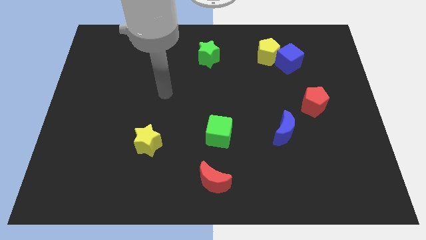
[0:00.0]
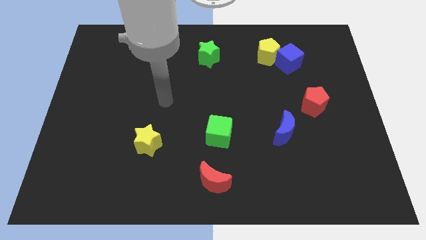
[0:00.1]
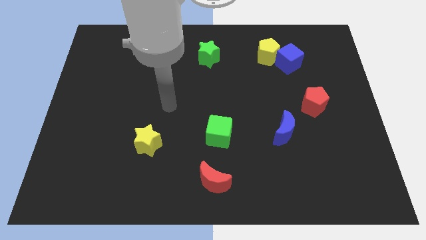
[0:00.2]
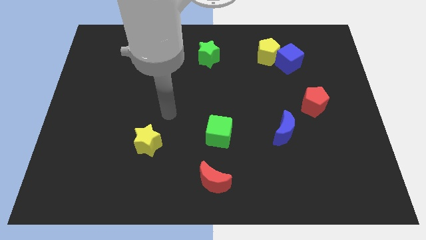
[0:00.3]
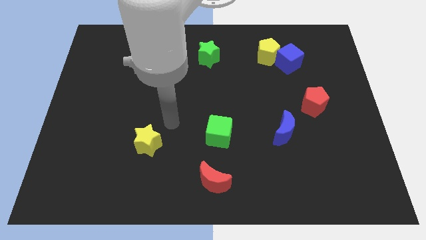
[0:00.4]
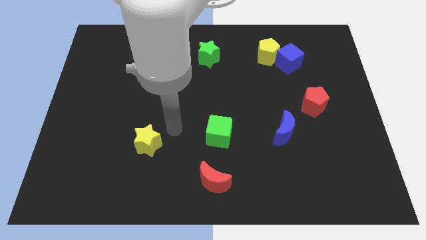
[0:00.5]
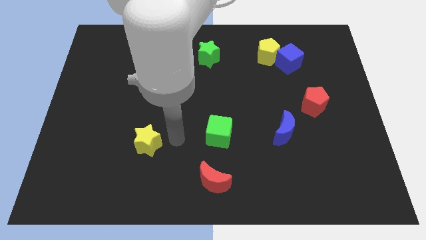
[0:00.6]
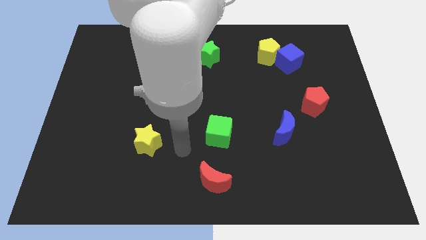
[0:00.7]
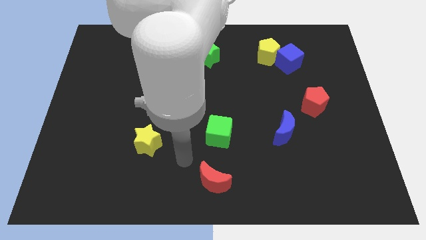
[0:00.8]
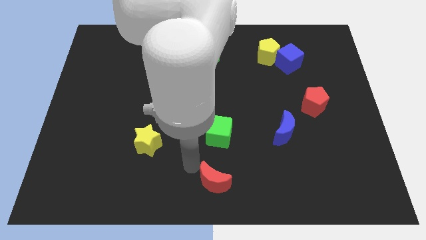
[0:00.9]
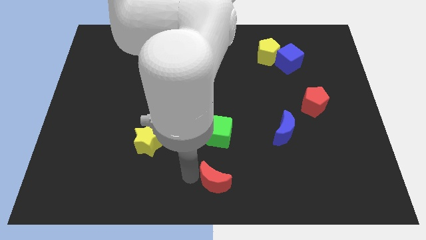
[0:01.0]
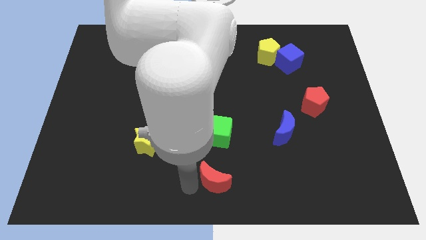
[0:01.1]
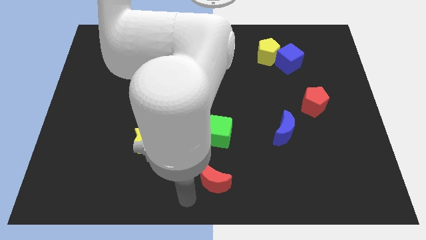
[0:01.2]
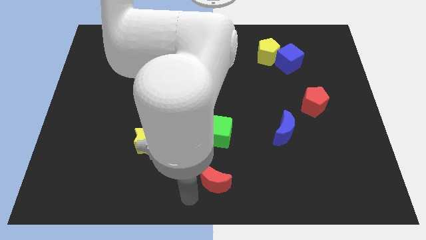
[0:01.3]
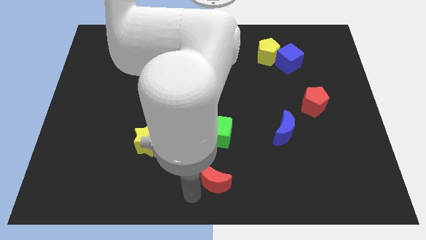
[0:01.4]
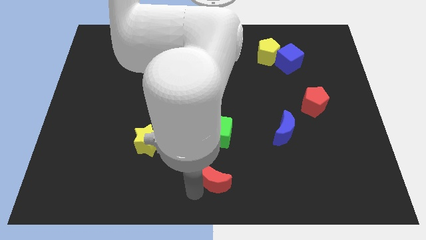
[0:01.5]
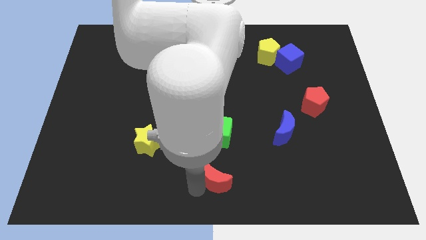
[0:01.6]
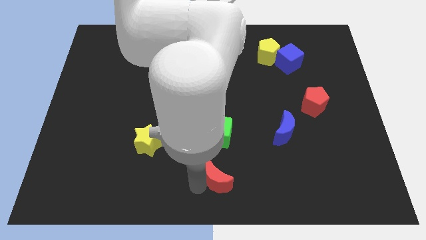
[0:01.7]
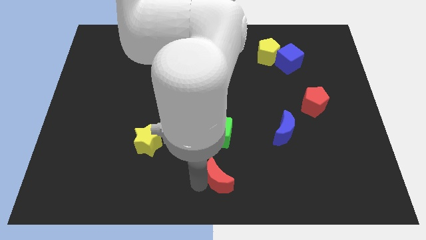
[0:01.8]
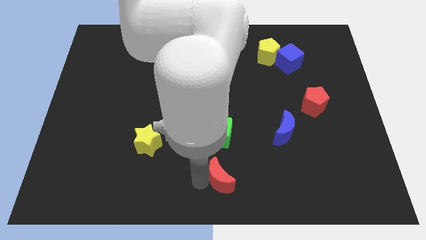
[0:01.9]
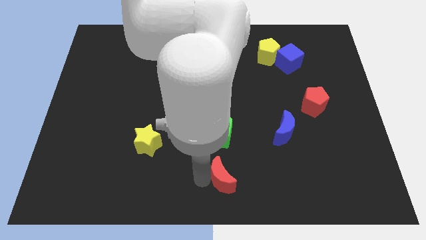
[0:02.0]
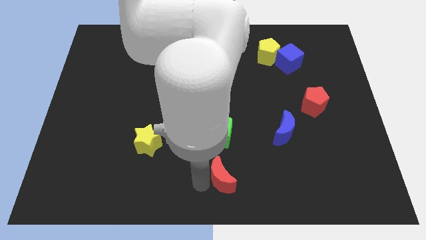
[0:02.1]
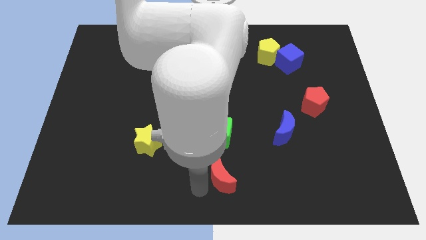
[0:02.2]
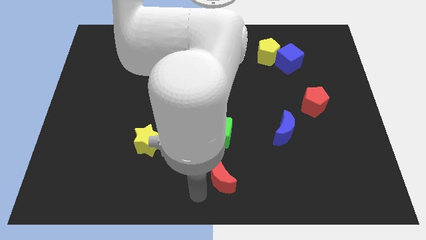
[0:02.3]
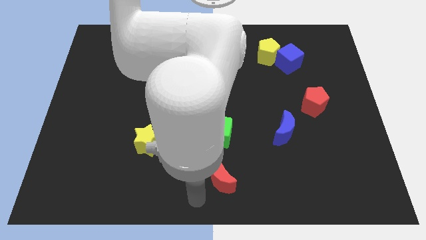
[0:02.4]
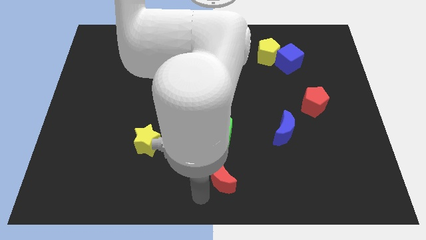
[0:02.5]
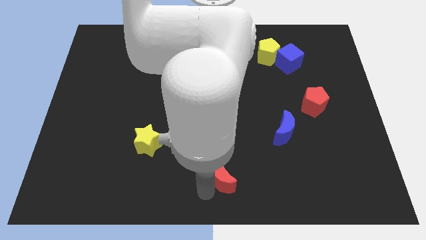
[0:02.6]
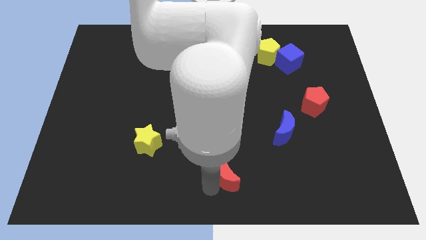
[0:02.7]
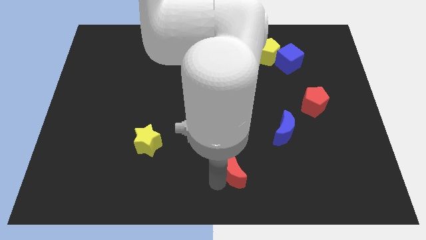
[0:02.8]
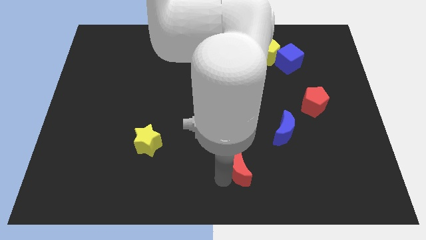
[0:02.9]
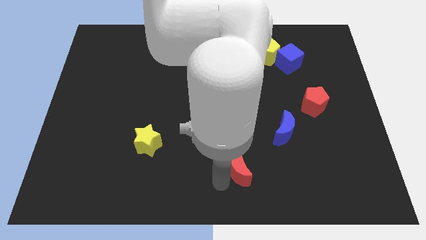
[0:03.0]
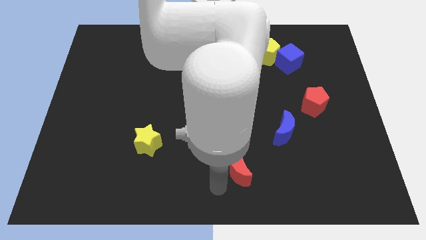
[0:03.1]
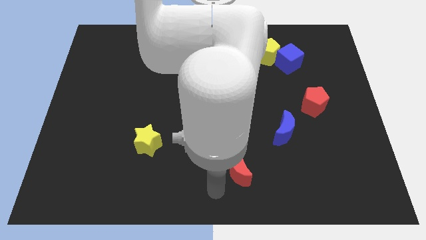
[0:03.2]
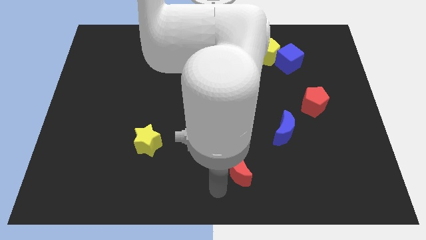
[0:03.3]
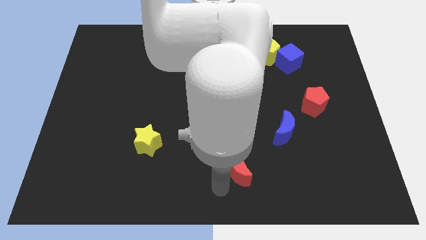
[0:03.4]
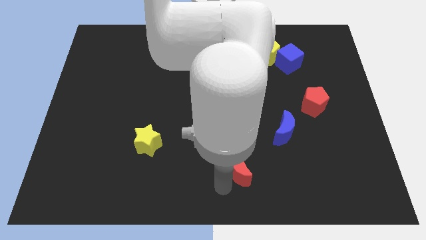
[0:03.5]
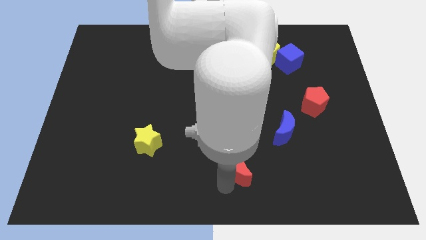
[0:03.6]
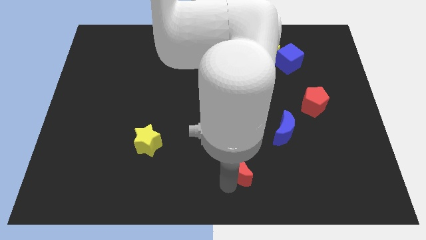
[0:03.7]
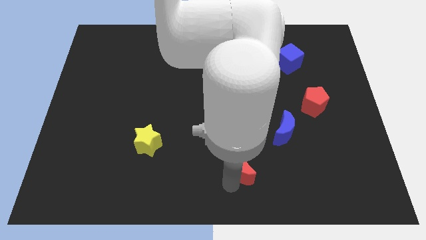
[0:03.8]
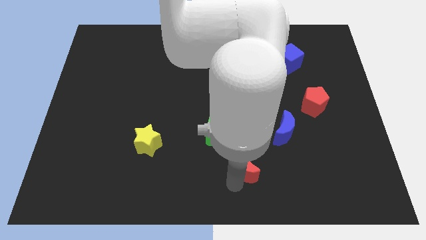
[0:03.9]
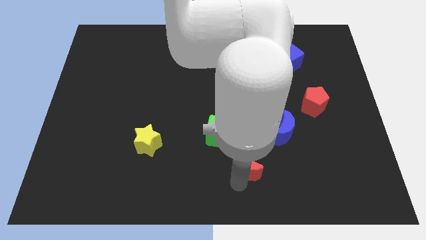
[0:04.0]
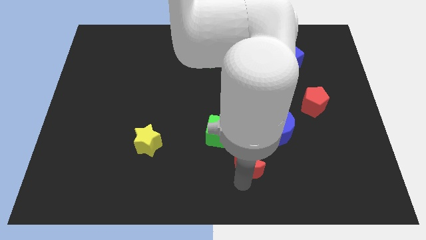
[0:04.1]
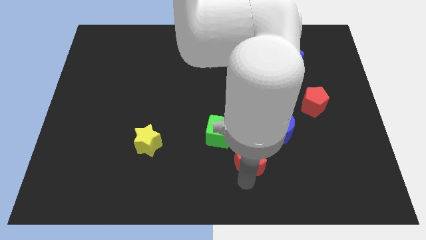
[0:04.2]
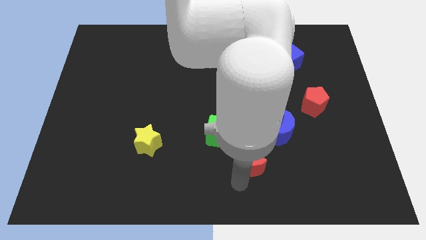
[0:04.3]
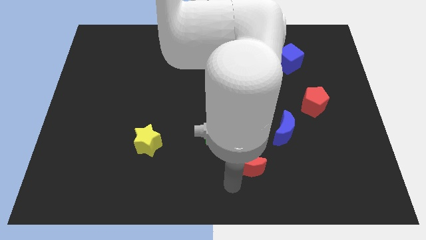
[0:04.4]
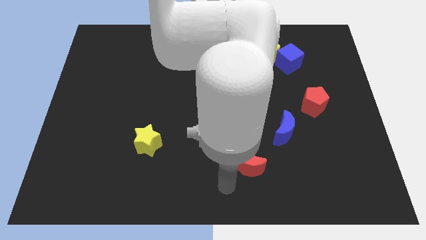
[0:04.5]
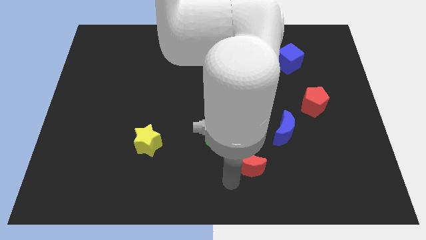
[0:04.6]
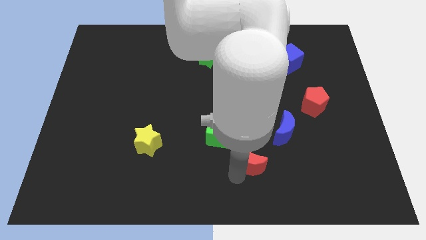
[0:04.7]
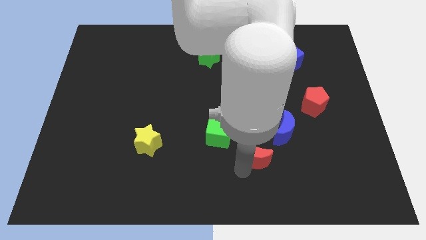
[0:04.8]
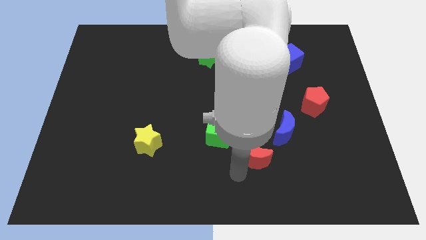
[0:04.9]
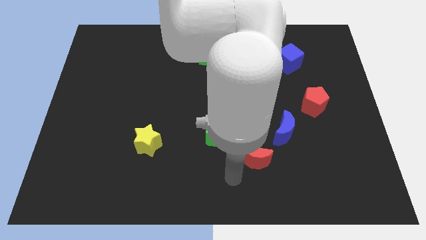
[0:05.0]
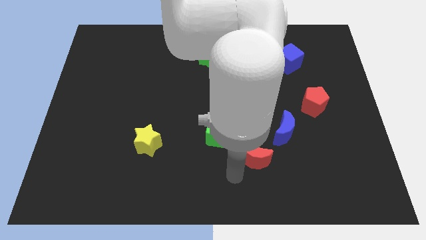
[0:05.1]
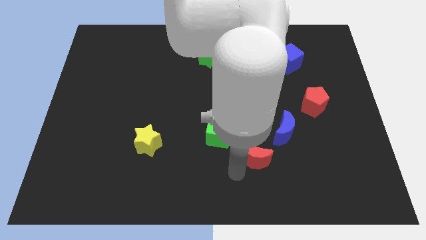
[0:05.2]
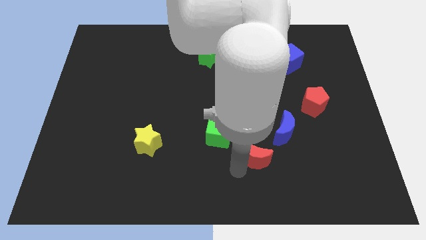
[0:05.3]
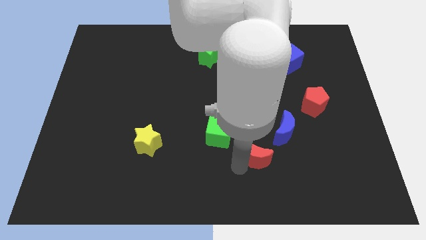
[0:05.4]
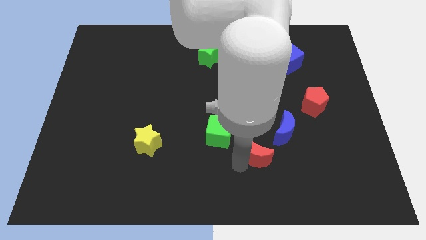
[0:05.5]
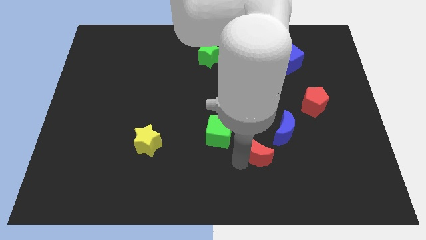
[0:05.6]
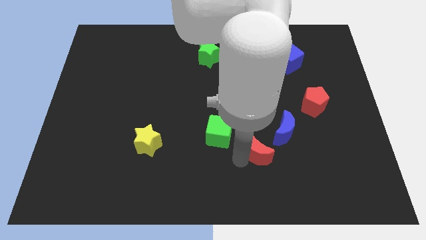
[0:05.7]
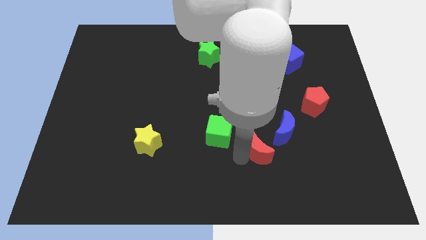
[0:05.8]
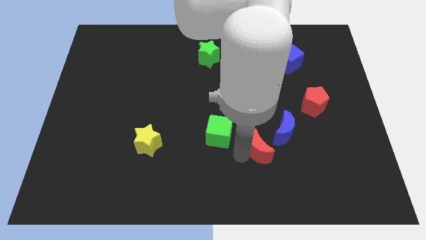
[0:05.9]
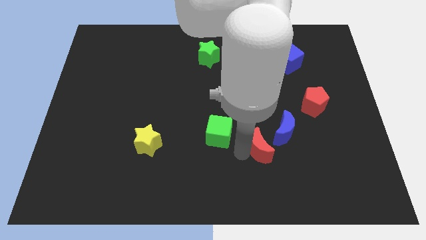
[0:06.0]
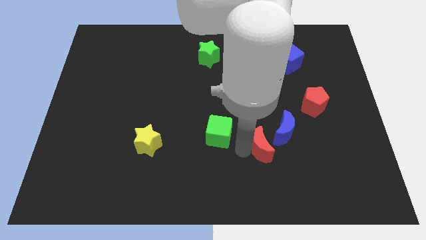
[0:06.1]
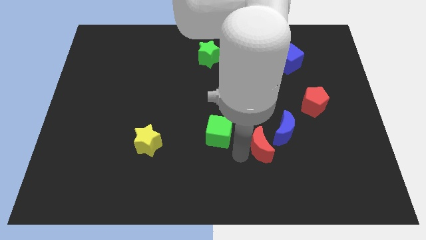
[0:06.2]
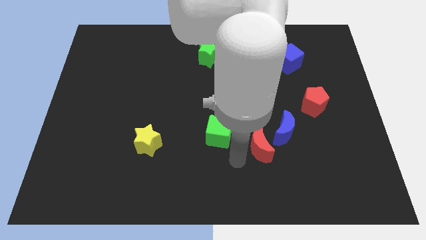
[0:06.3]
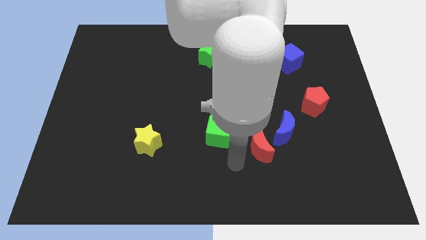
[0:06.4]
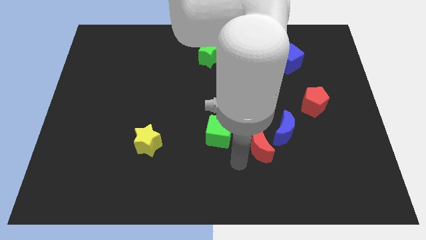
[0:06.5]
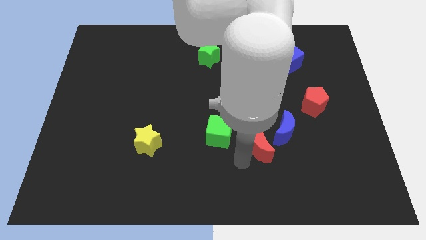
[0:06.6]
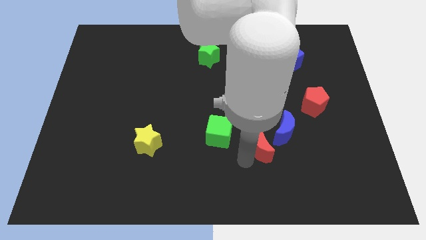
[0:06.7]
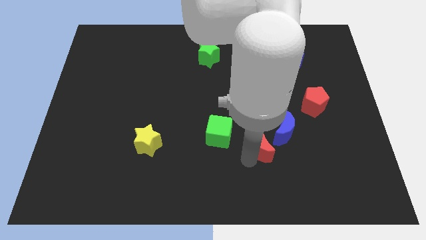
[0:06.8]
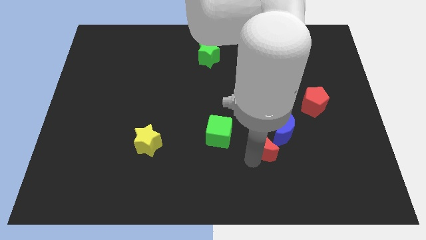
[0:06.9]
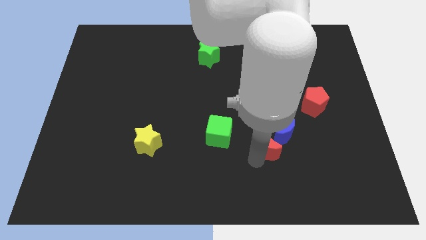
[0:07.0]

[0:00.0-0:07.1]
slide the red moon next to the blue moon
